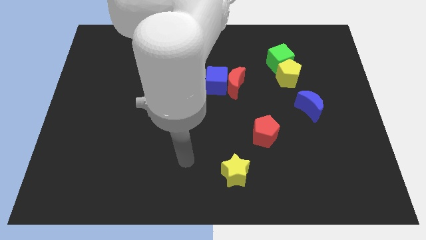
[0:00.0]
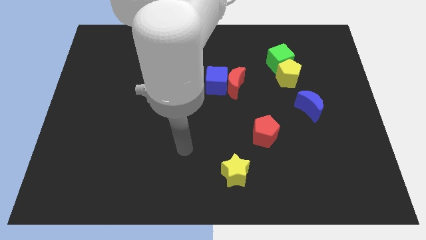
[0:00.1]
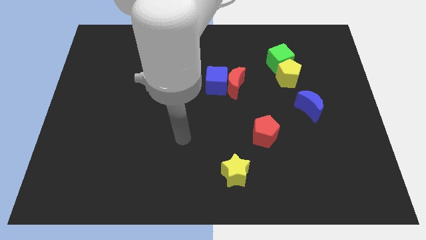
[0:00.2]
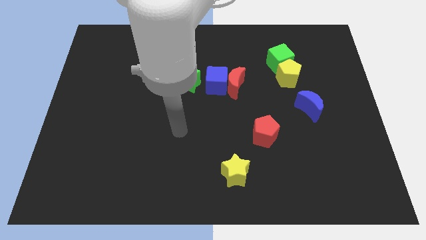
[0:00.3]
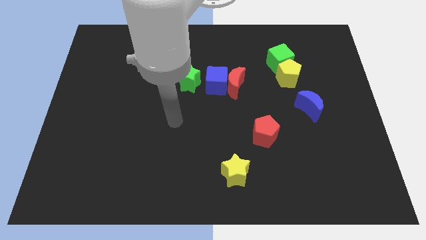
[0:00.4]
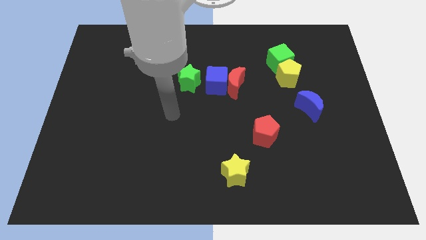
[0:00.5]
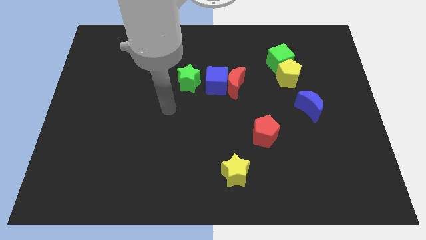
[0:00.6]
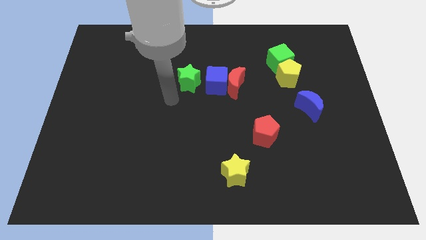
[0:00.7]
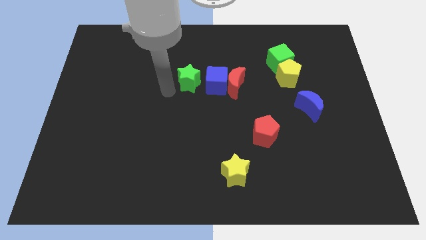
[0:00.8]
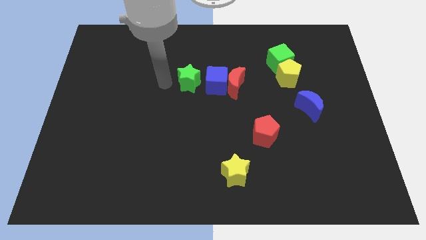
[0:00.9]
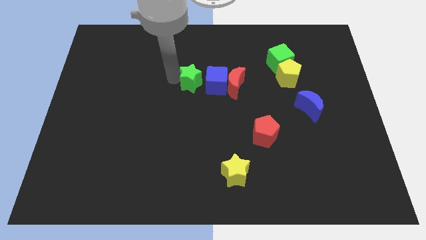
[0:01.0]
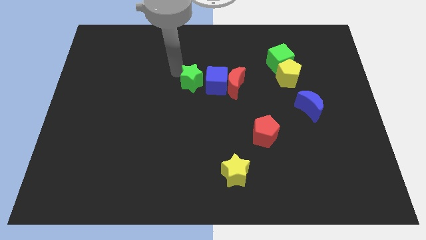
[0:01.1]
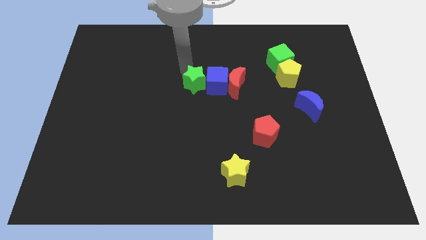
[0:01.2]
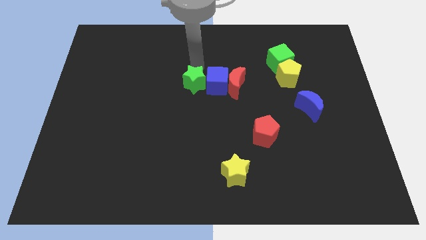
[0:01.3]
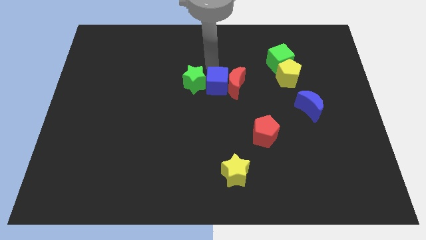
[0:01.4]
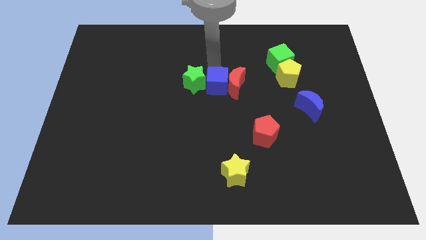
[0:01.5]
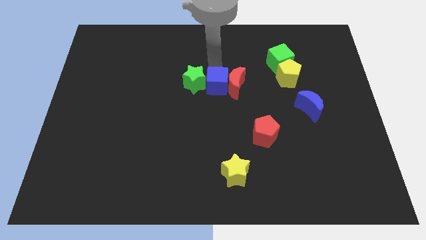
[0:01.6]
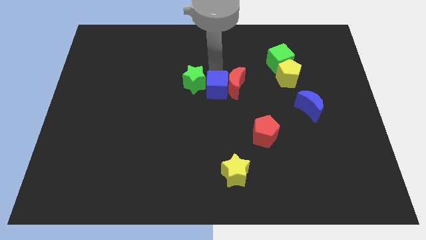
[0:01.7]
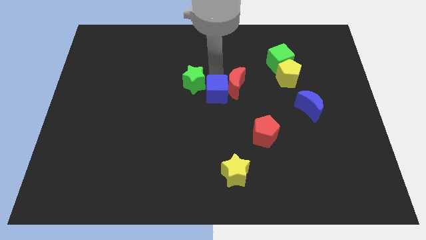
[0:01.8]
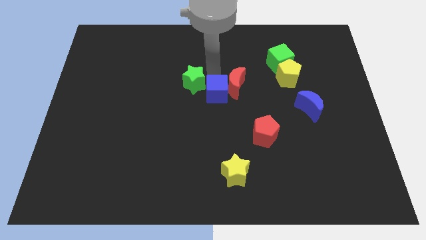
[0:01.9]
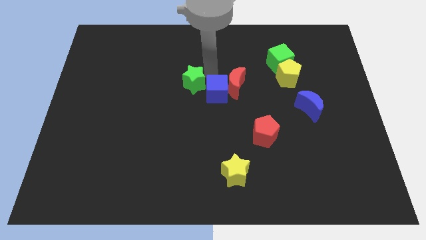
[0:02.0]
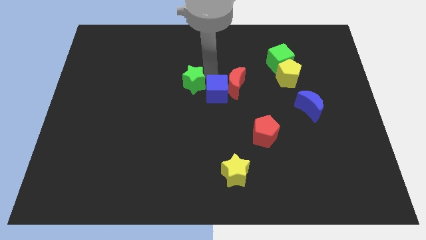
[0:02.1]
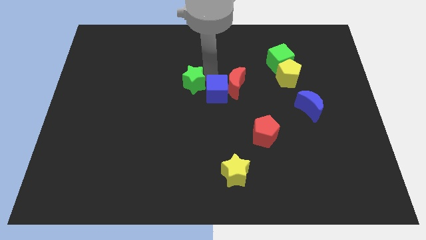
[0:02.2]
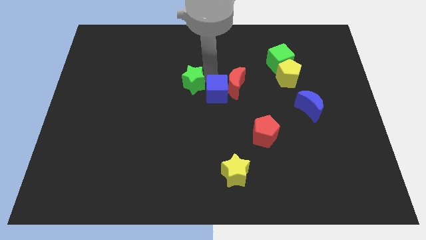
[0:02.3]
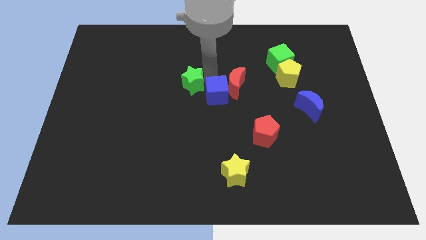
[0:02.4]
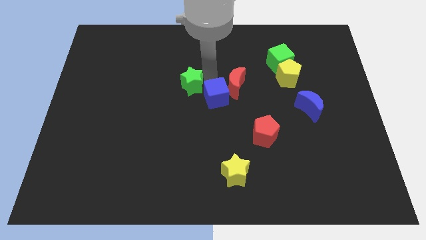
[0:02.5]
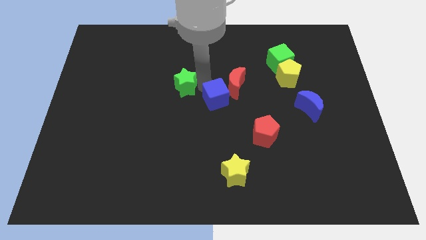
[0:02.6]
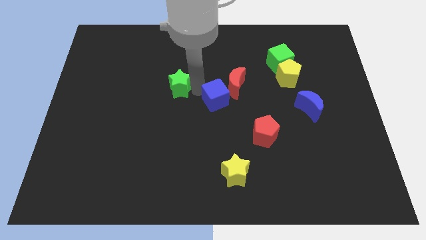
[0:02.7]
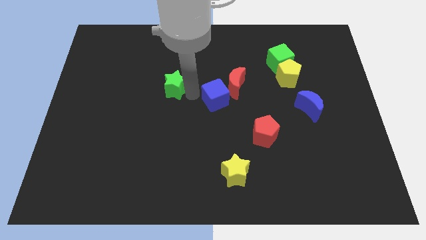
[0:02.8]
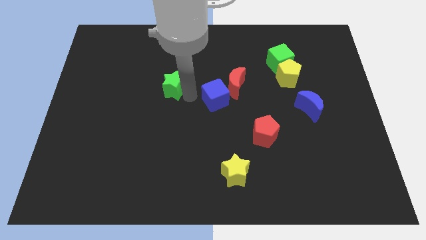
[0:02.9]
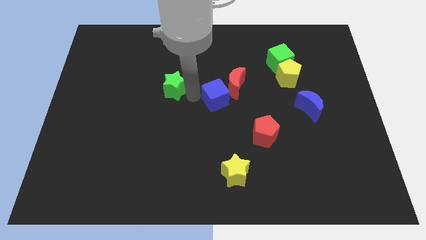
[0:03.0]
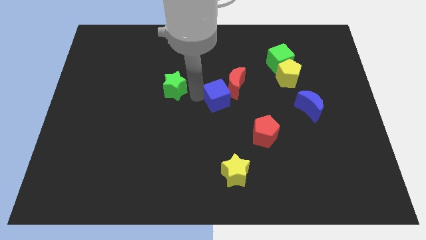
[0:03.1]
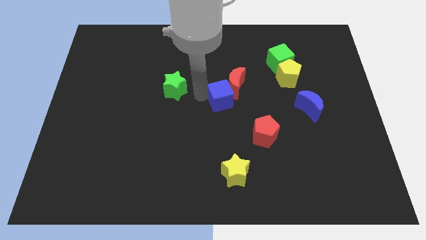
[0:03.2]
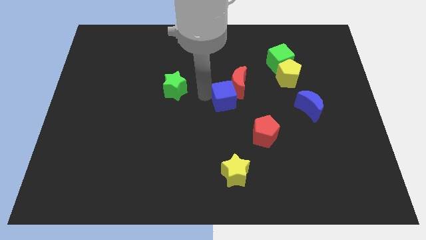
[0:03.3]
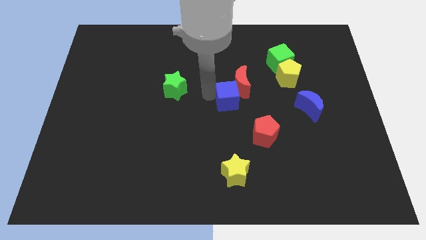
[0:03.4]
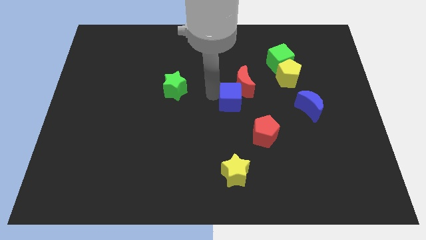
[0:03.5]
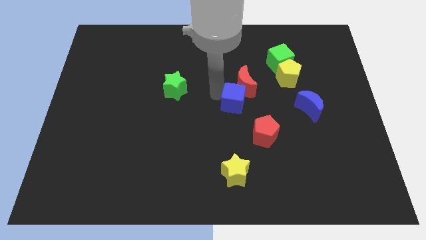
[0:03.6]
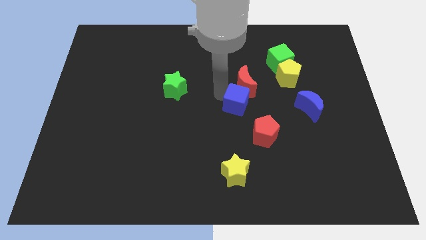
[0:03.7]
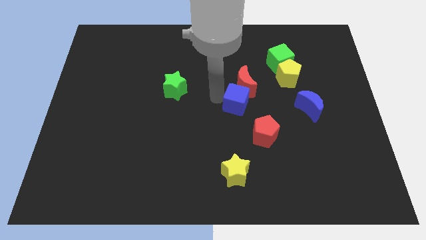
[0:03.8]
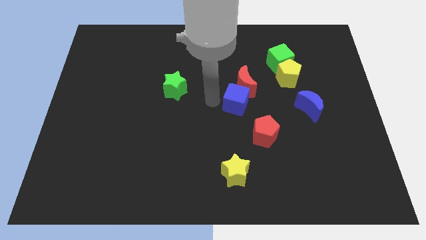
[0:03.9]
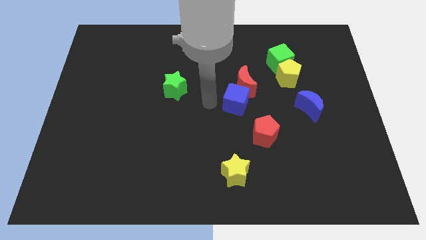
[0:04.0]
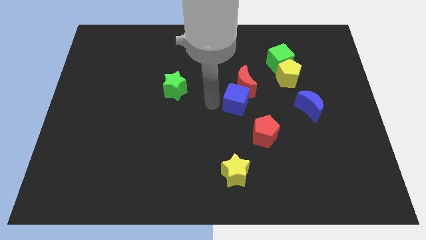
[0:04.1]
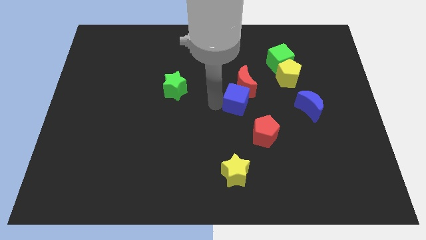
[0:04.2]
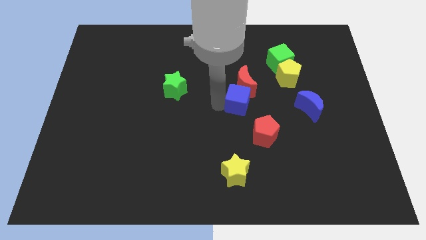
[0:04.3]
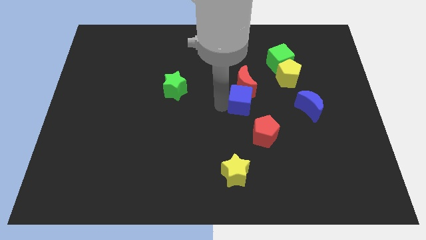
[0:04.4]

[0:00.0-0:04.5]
move the blue cube to the bottom right side of the red moon

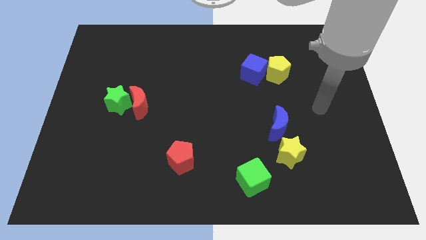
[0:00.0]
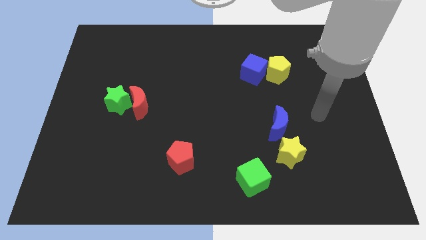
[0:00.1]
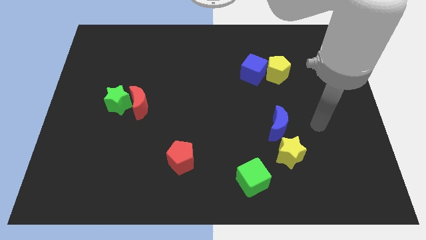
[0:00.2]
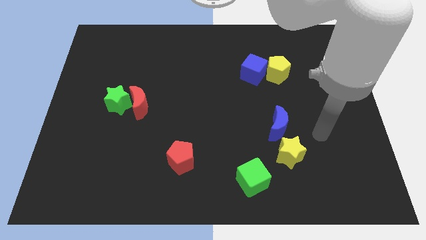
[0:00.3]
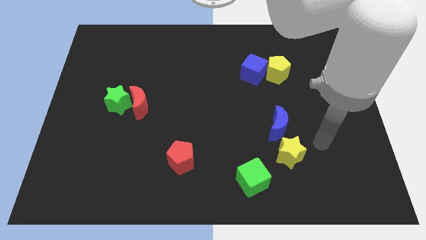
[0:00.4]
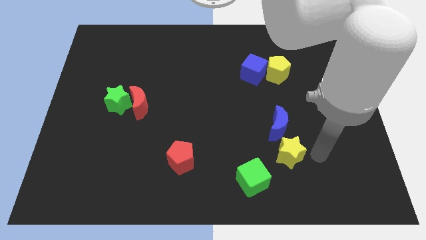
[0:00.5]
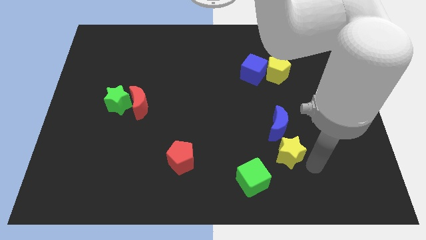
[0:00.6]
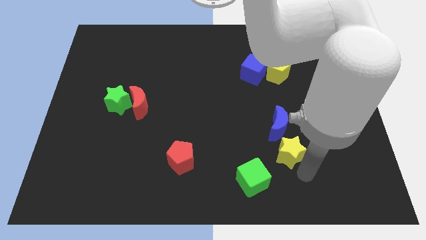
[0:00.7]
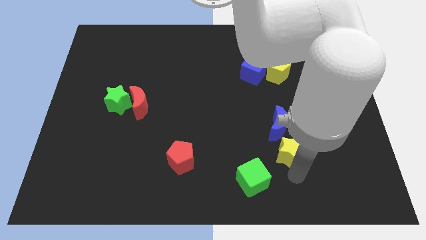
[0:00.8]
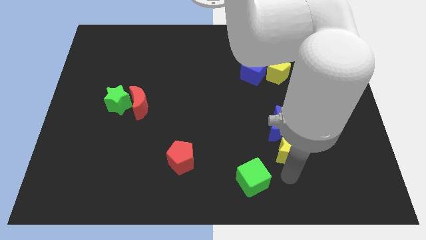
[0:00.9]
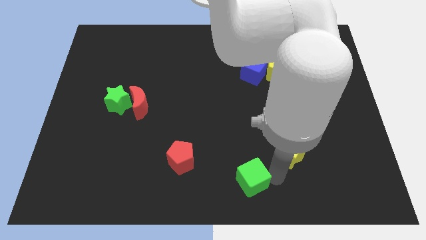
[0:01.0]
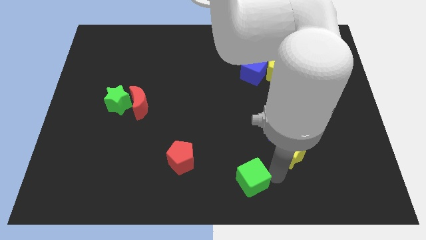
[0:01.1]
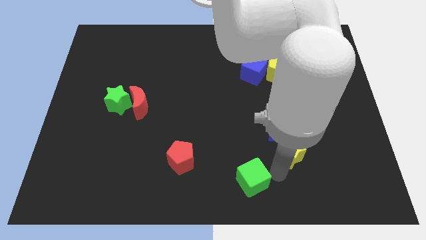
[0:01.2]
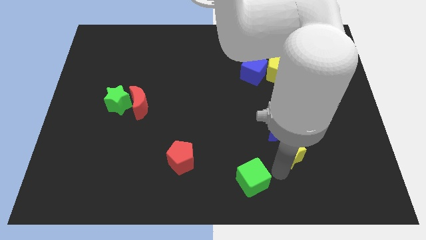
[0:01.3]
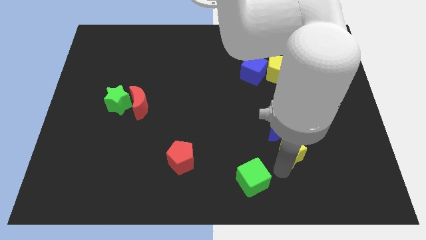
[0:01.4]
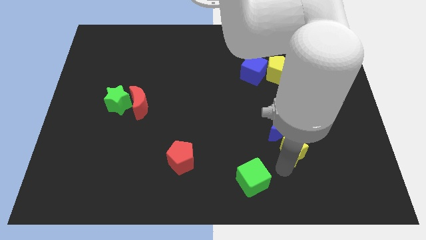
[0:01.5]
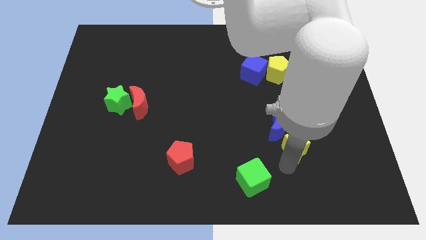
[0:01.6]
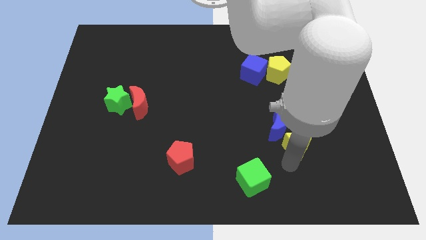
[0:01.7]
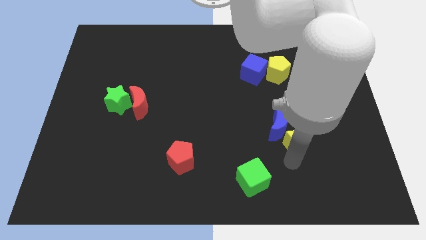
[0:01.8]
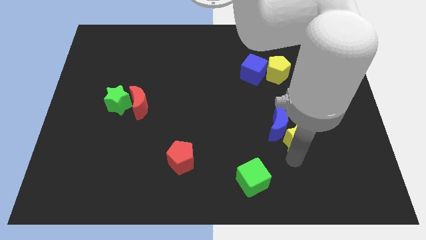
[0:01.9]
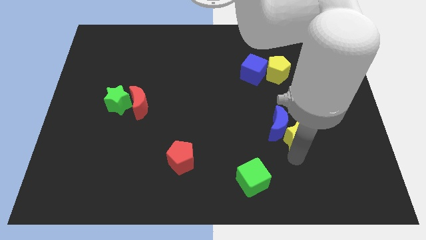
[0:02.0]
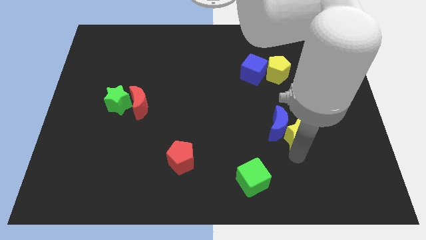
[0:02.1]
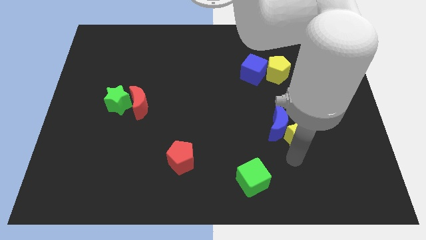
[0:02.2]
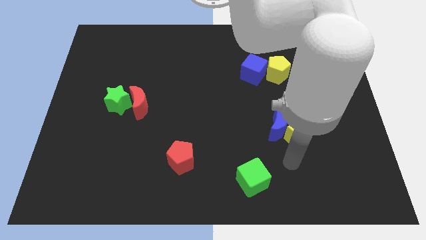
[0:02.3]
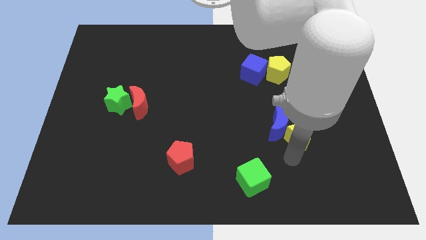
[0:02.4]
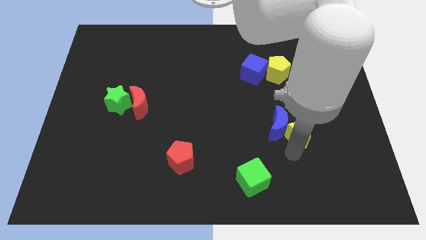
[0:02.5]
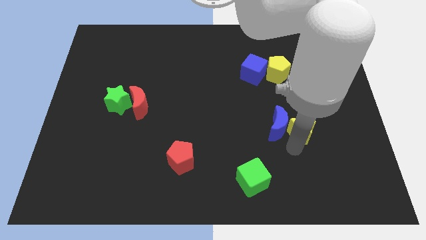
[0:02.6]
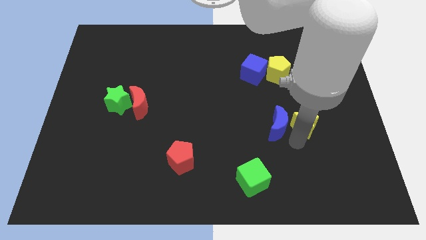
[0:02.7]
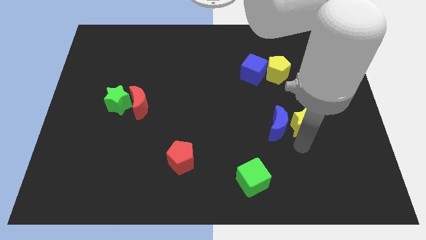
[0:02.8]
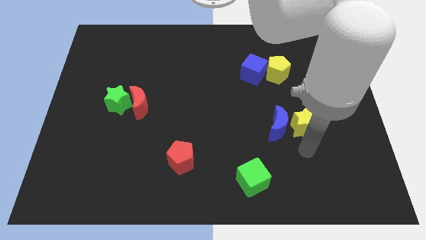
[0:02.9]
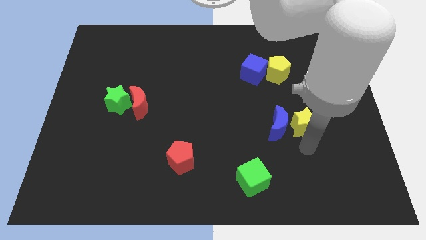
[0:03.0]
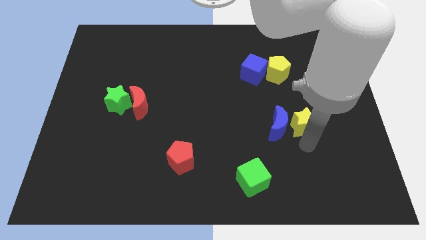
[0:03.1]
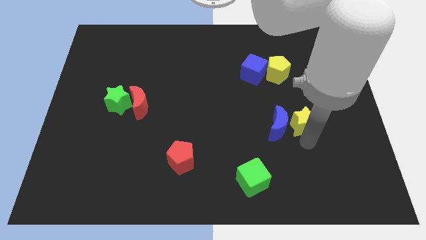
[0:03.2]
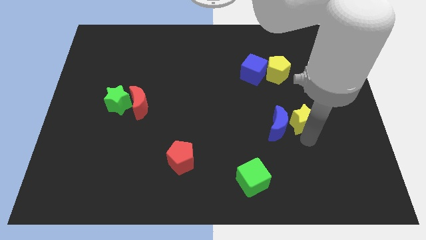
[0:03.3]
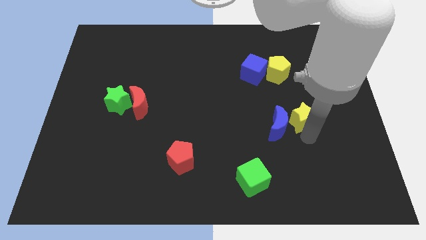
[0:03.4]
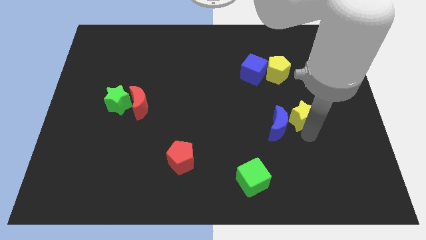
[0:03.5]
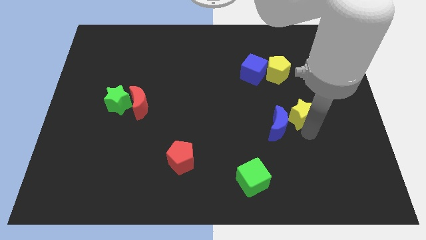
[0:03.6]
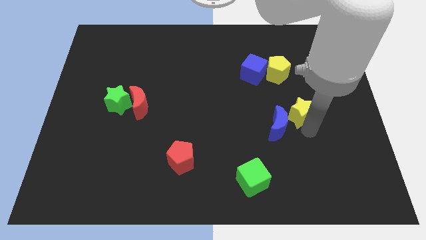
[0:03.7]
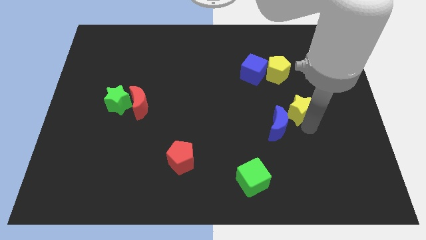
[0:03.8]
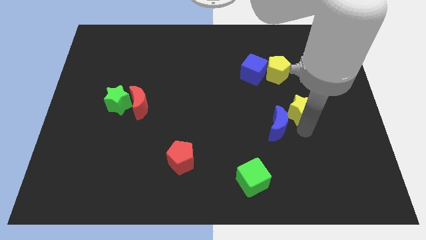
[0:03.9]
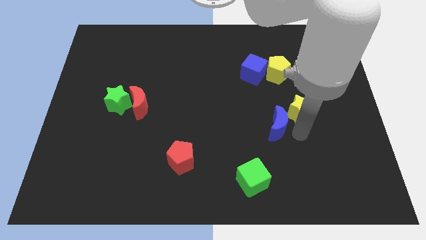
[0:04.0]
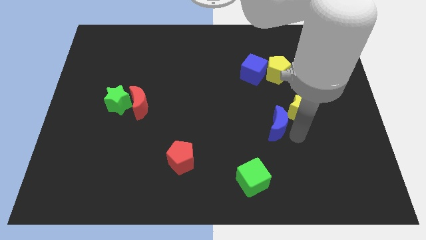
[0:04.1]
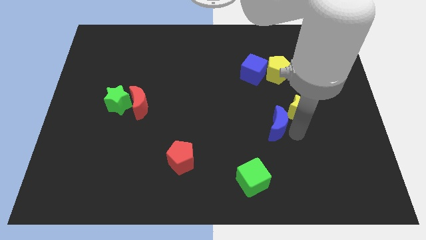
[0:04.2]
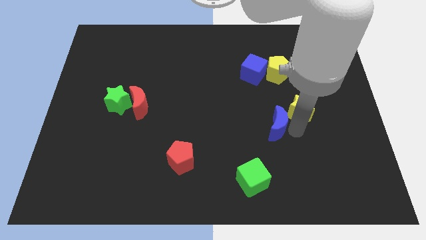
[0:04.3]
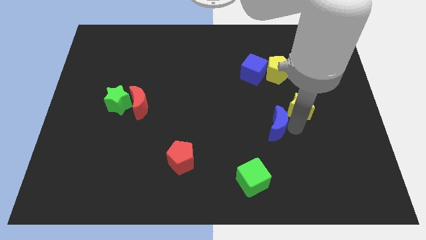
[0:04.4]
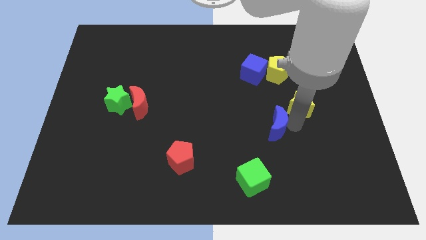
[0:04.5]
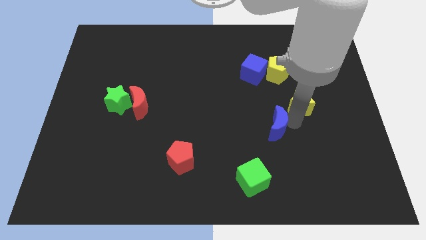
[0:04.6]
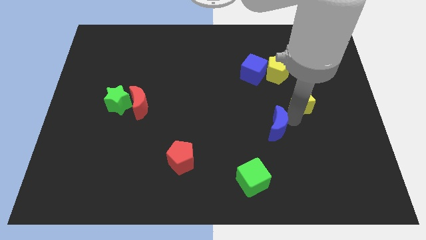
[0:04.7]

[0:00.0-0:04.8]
put the yellow star to the bottom right side of the yellow pentagon
